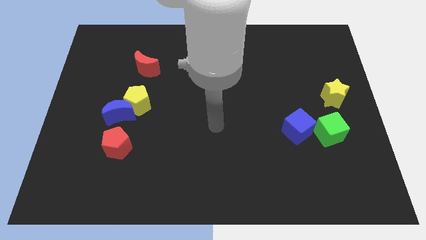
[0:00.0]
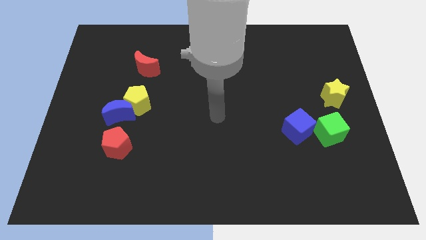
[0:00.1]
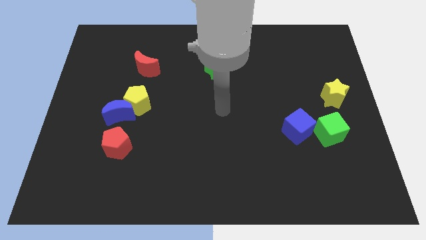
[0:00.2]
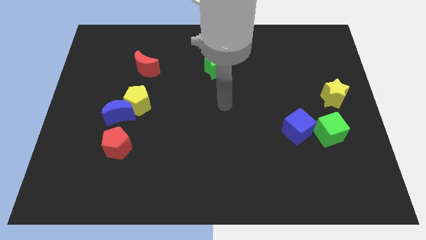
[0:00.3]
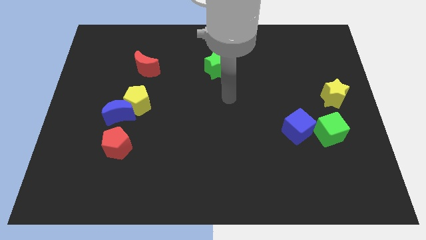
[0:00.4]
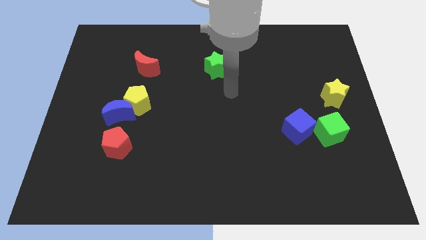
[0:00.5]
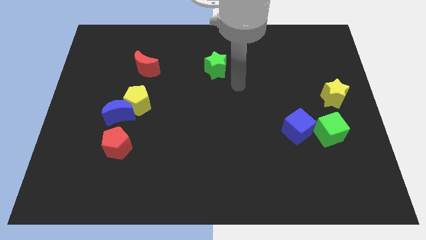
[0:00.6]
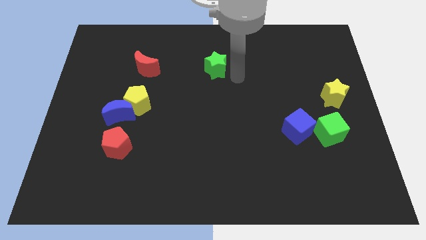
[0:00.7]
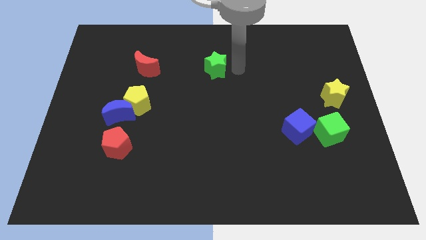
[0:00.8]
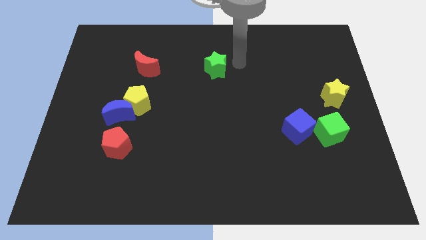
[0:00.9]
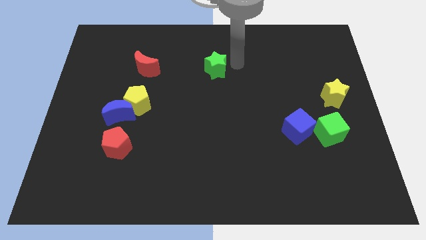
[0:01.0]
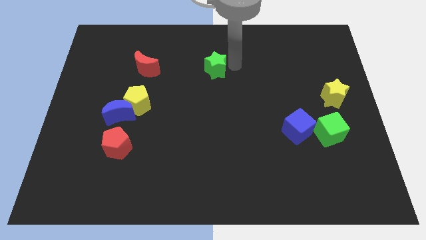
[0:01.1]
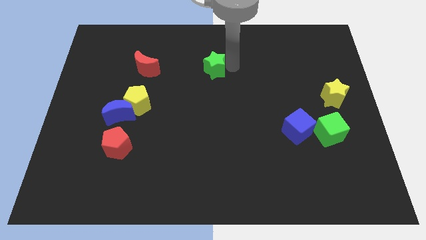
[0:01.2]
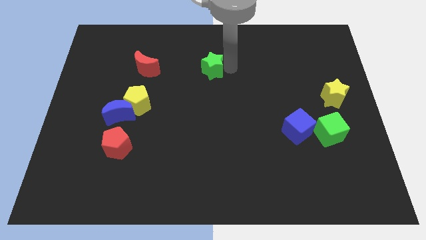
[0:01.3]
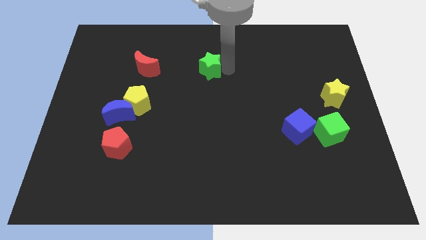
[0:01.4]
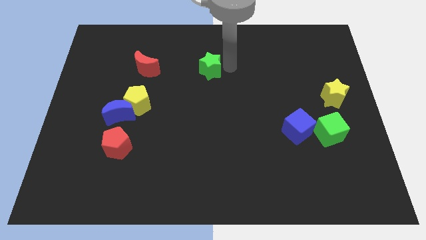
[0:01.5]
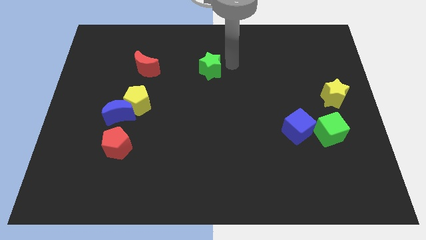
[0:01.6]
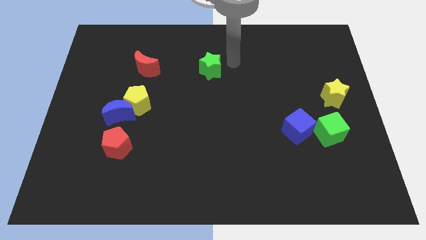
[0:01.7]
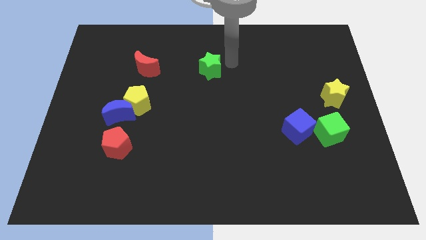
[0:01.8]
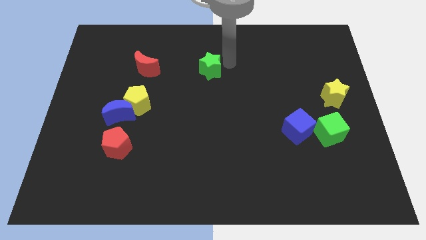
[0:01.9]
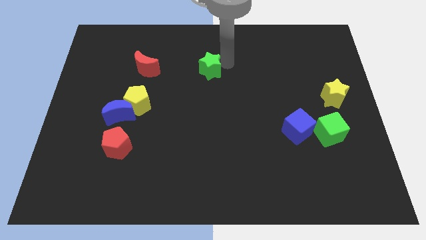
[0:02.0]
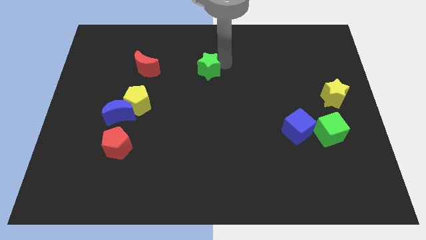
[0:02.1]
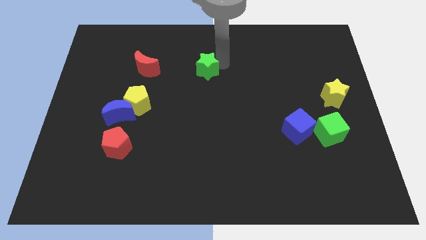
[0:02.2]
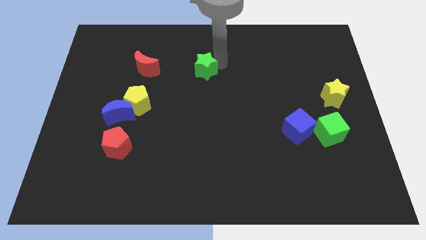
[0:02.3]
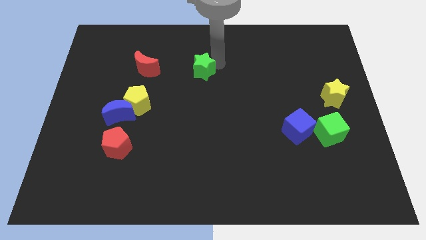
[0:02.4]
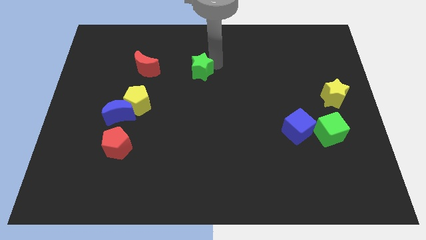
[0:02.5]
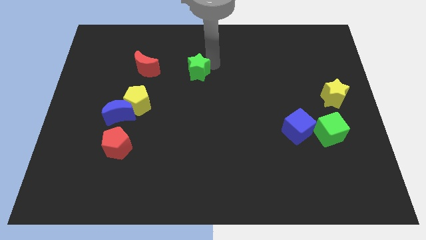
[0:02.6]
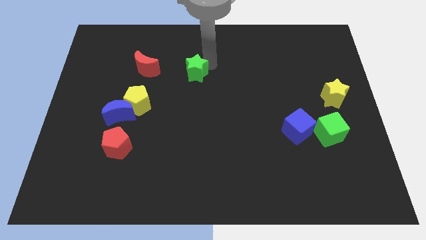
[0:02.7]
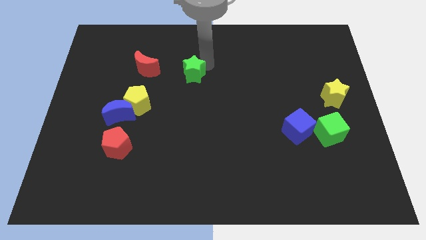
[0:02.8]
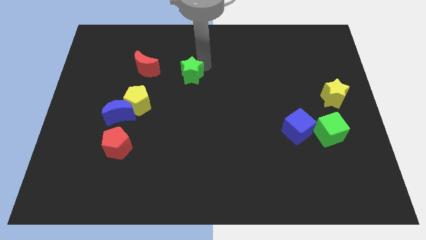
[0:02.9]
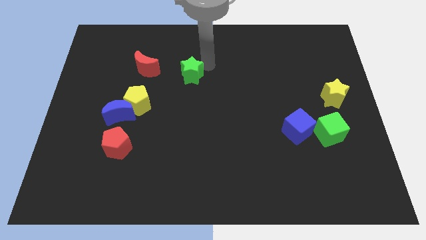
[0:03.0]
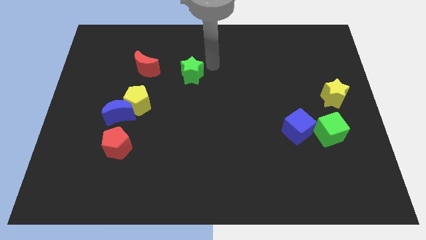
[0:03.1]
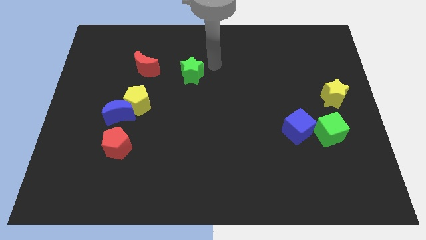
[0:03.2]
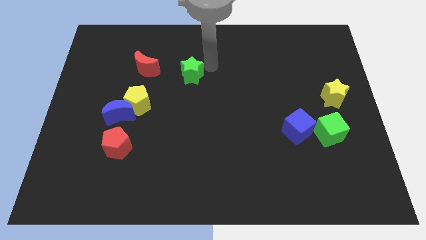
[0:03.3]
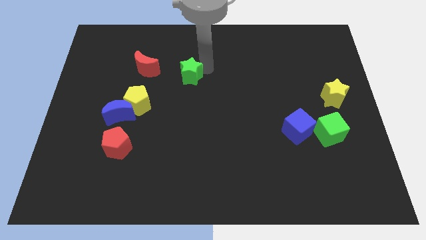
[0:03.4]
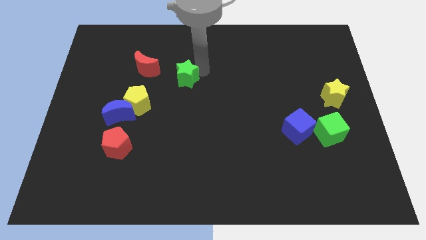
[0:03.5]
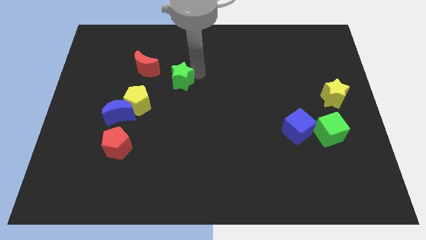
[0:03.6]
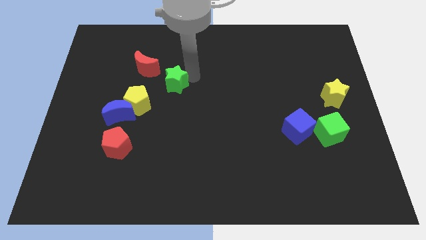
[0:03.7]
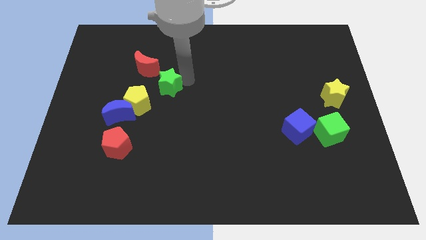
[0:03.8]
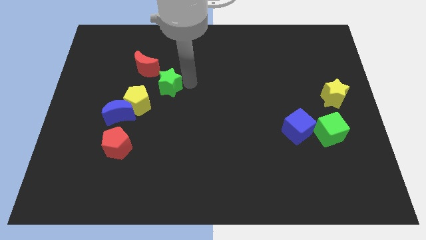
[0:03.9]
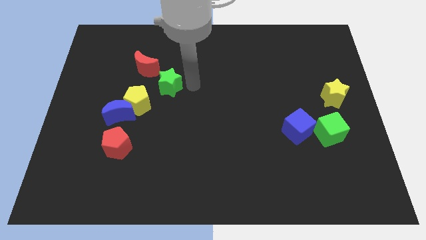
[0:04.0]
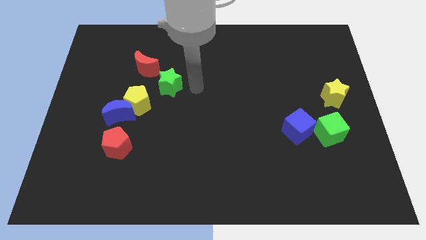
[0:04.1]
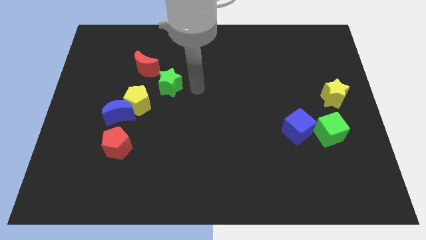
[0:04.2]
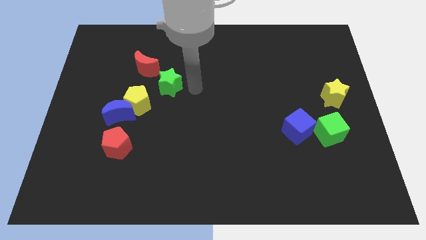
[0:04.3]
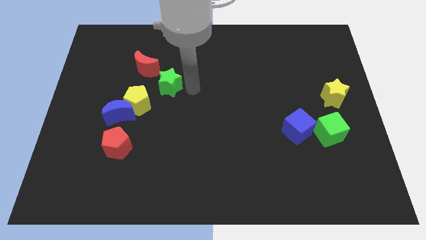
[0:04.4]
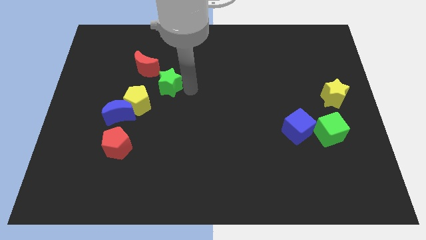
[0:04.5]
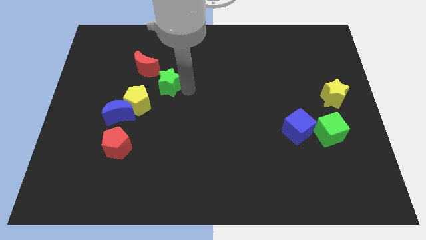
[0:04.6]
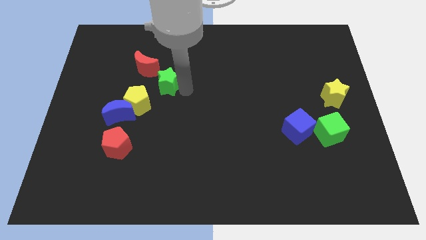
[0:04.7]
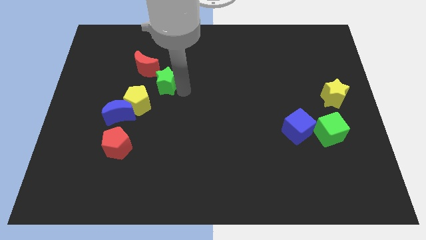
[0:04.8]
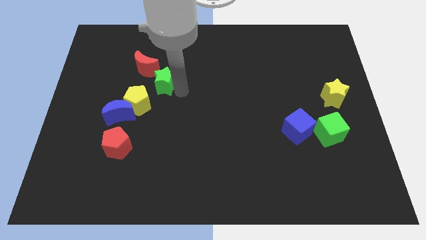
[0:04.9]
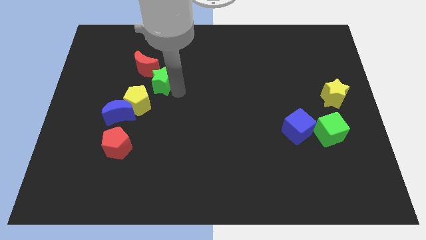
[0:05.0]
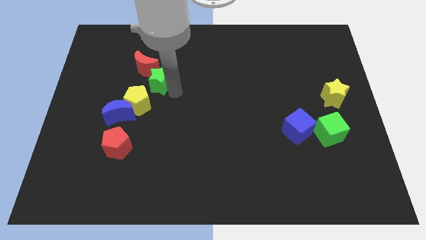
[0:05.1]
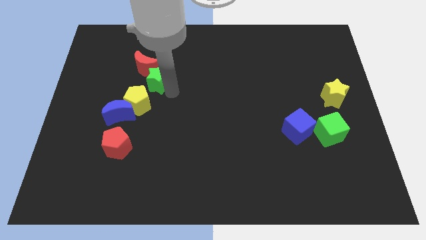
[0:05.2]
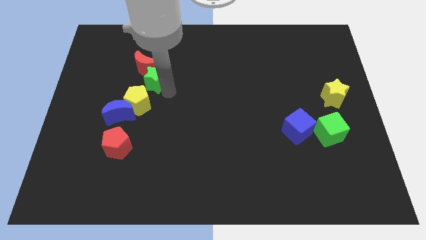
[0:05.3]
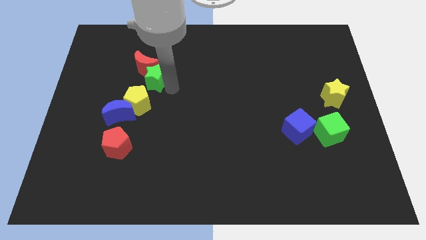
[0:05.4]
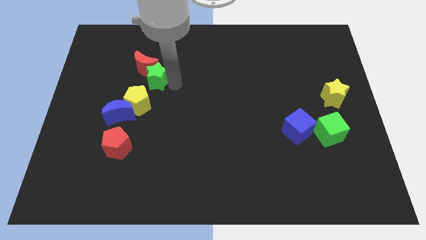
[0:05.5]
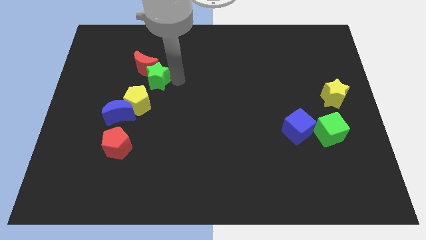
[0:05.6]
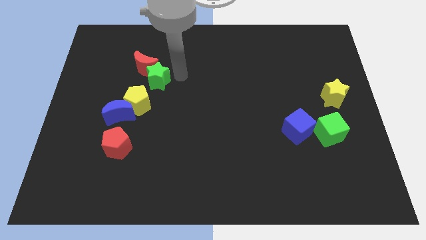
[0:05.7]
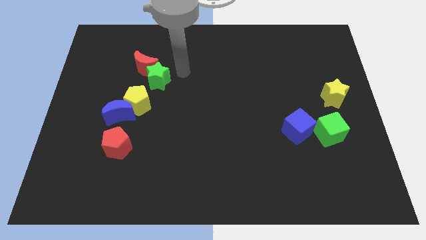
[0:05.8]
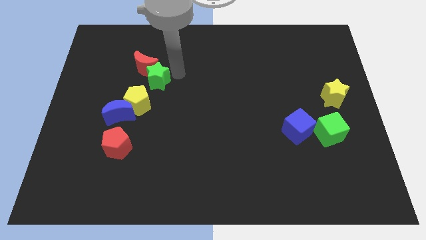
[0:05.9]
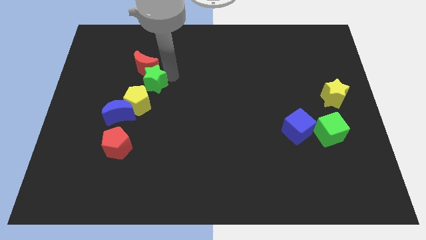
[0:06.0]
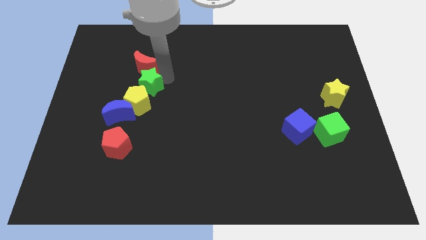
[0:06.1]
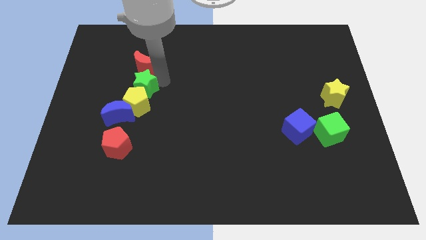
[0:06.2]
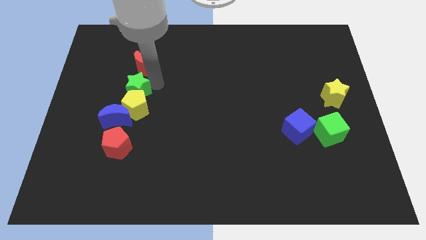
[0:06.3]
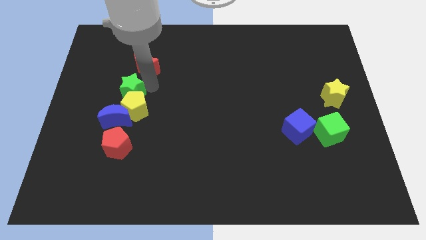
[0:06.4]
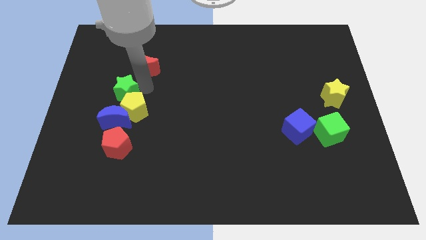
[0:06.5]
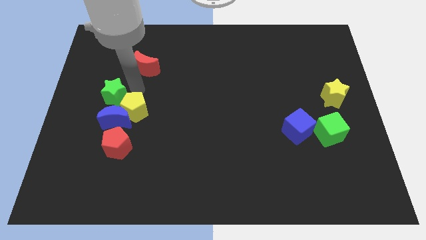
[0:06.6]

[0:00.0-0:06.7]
slide the green star to the left side of the yellow pentagon

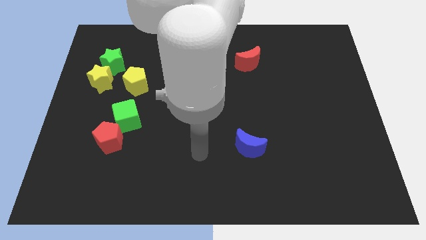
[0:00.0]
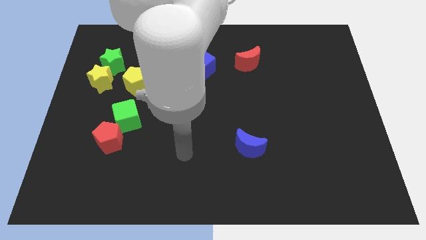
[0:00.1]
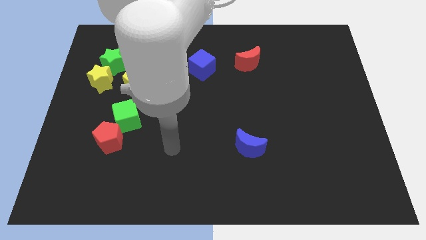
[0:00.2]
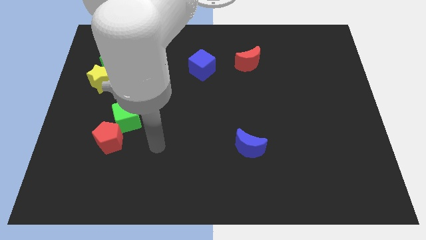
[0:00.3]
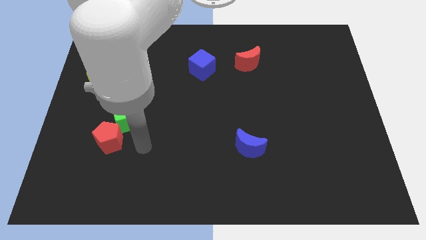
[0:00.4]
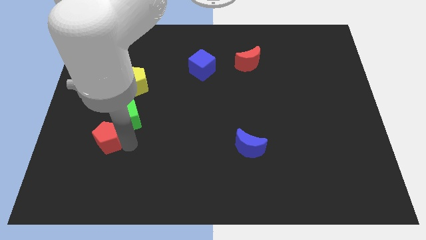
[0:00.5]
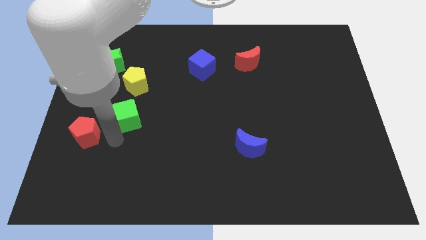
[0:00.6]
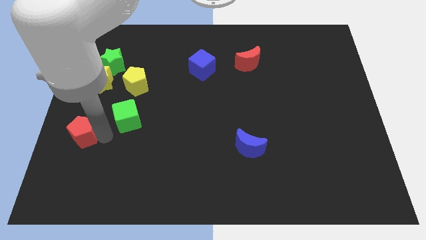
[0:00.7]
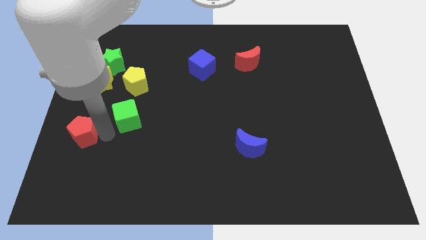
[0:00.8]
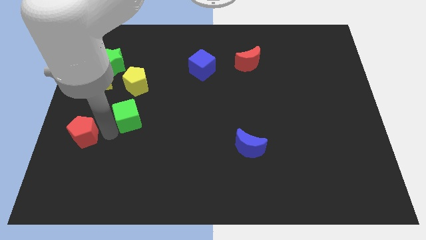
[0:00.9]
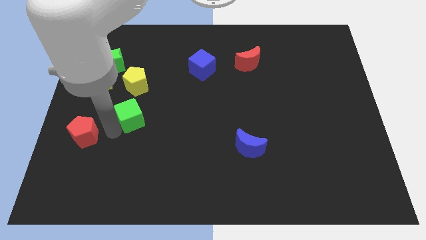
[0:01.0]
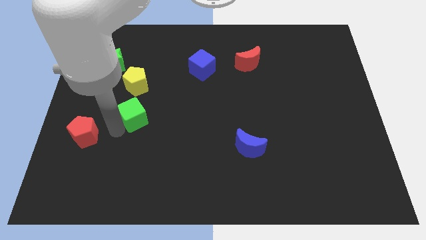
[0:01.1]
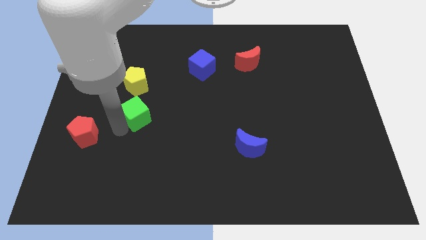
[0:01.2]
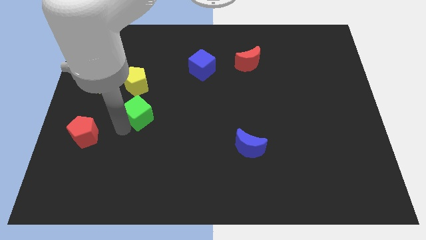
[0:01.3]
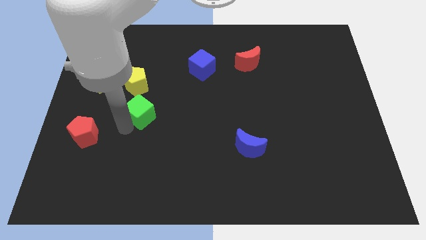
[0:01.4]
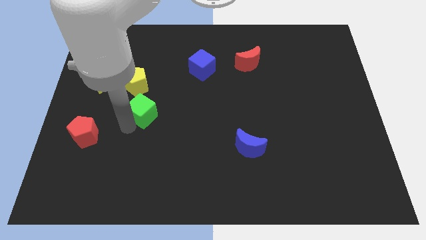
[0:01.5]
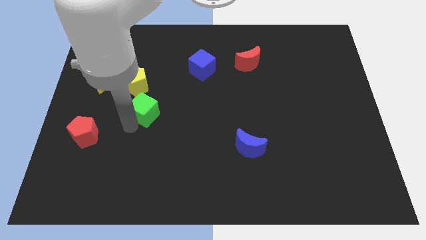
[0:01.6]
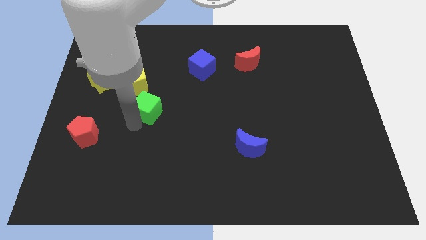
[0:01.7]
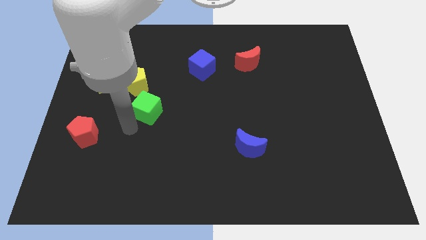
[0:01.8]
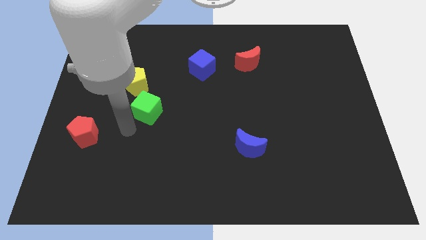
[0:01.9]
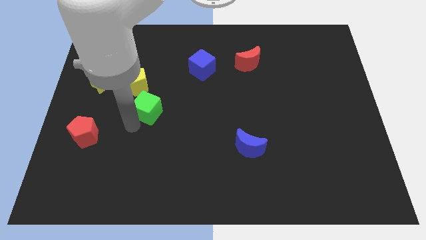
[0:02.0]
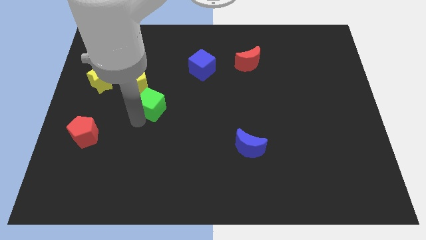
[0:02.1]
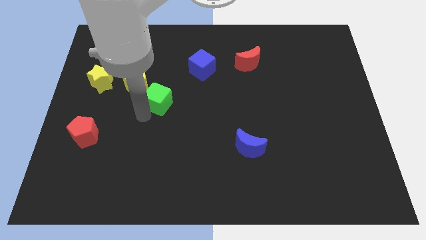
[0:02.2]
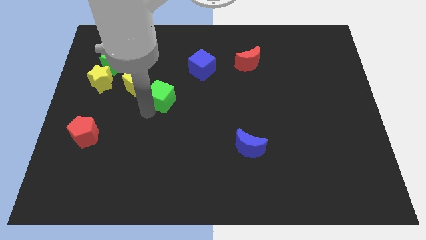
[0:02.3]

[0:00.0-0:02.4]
move the green cube just right of the yellow pentagon
